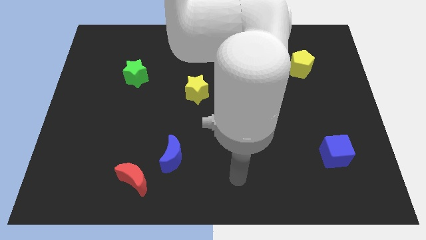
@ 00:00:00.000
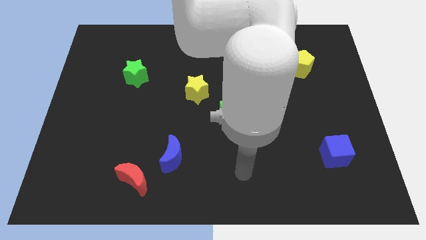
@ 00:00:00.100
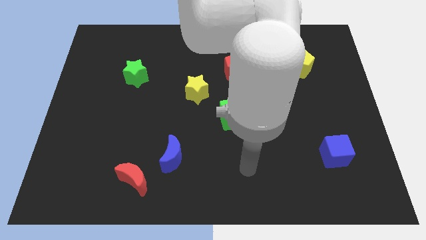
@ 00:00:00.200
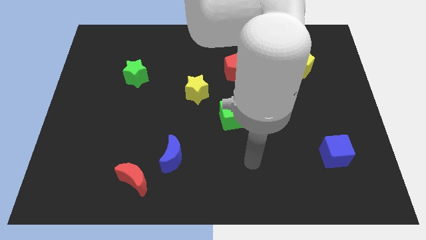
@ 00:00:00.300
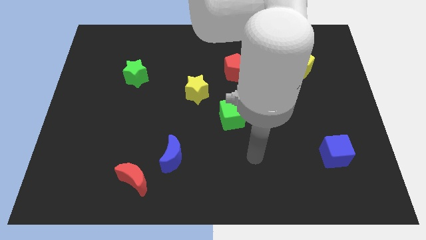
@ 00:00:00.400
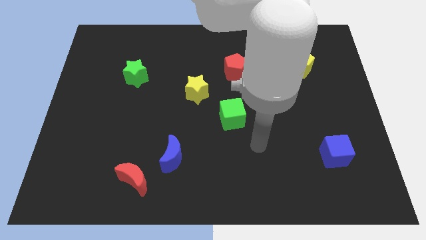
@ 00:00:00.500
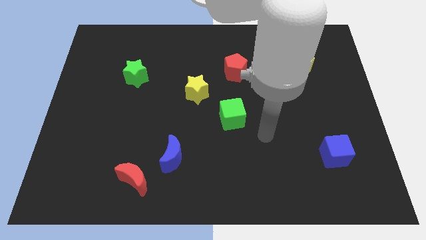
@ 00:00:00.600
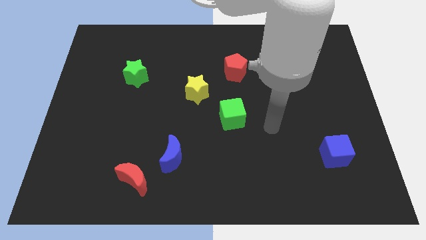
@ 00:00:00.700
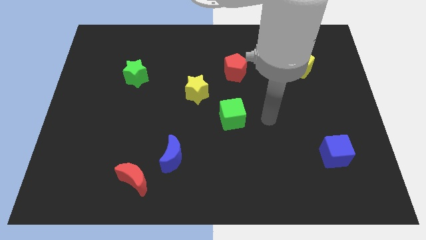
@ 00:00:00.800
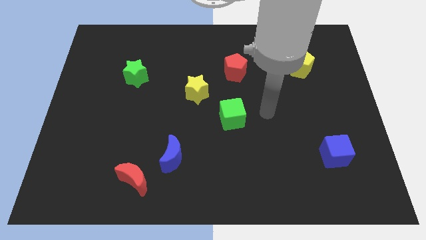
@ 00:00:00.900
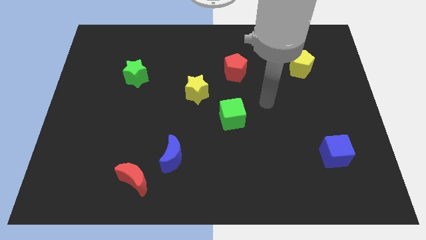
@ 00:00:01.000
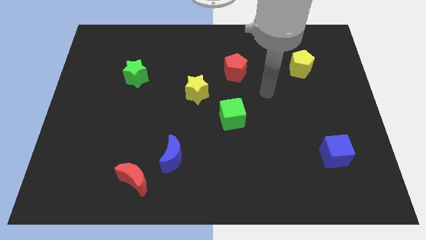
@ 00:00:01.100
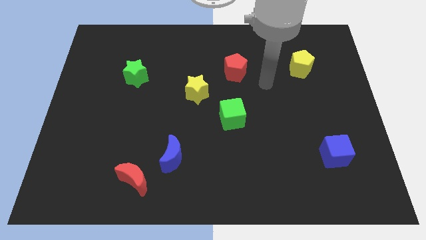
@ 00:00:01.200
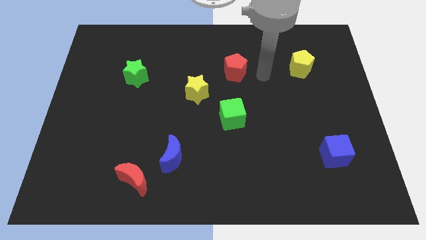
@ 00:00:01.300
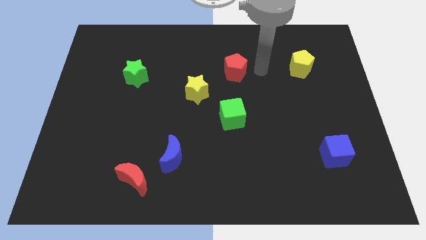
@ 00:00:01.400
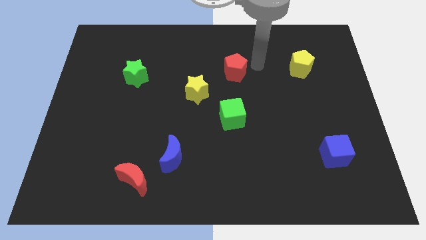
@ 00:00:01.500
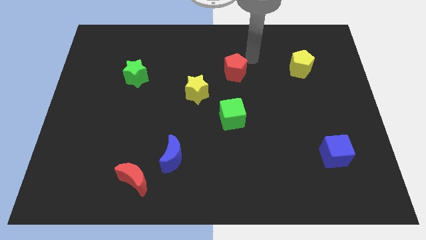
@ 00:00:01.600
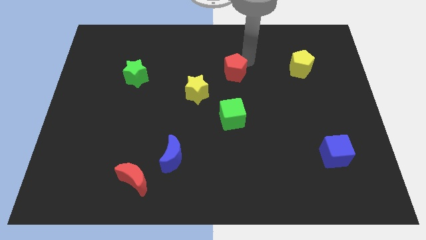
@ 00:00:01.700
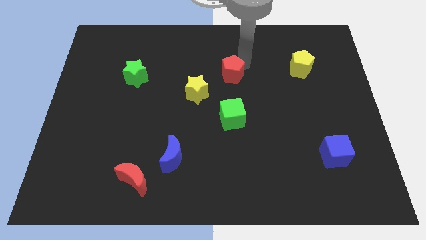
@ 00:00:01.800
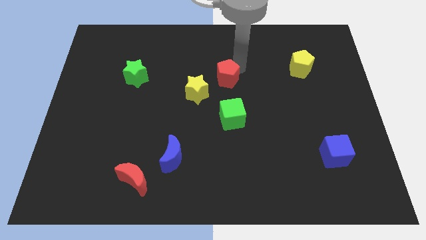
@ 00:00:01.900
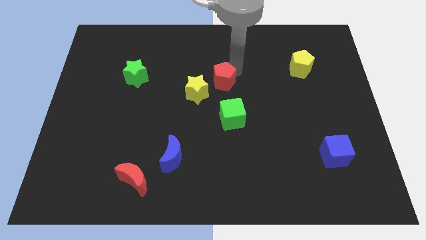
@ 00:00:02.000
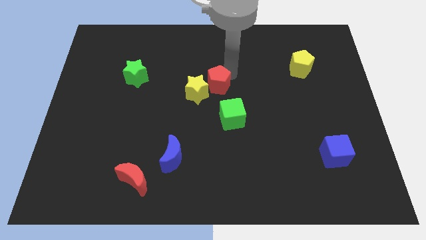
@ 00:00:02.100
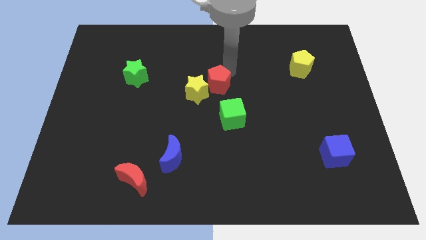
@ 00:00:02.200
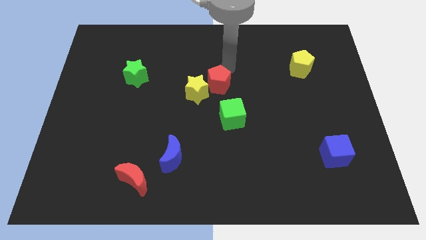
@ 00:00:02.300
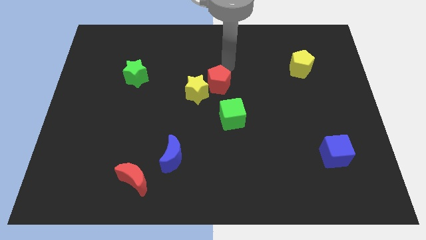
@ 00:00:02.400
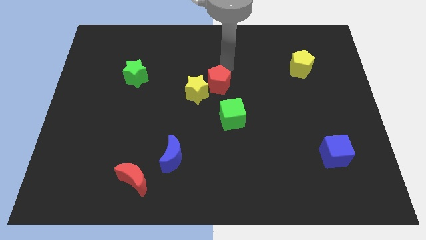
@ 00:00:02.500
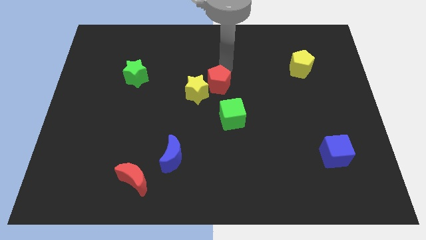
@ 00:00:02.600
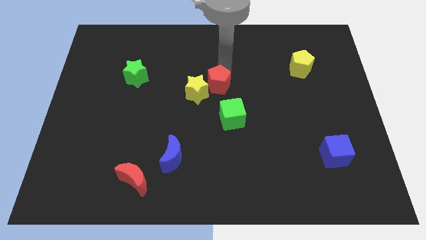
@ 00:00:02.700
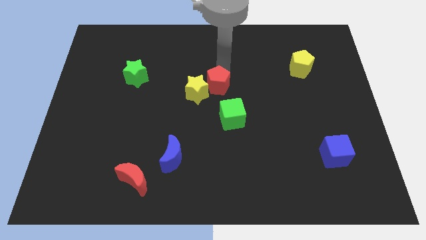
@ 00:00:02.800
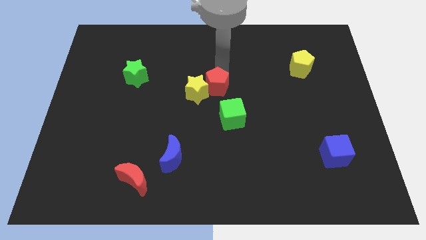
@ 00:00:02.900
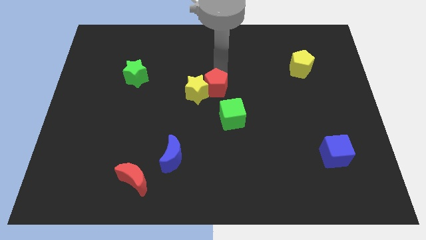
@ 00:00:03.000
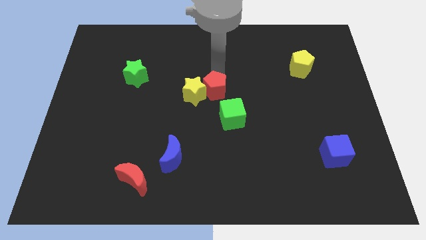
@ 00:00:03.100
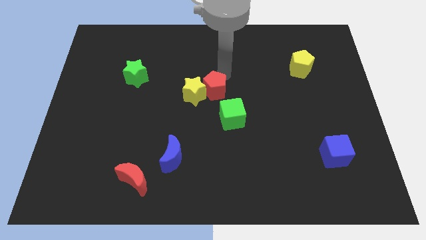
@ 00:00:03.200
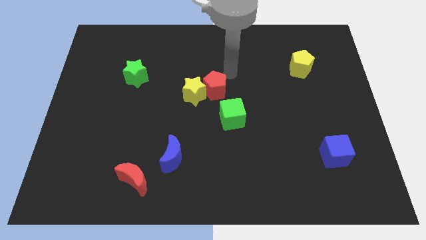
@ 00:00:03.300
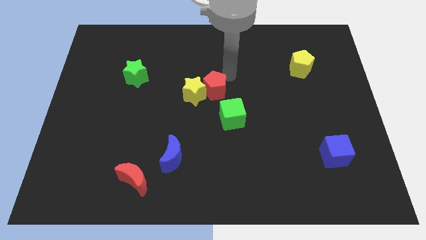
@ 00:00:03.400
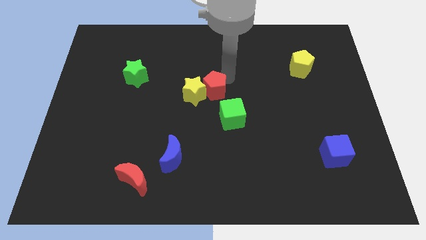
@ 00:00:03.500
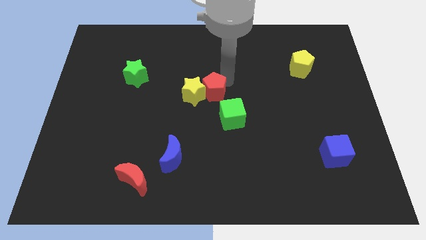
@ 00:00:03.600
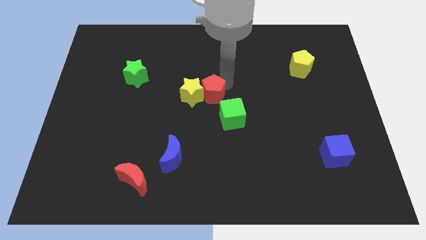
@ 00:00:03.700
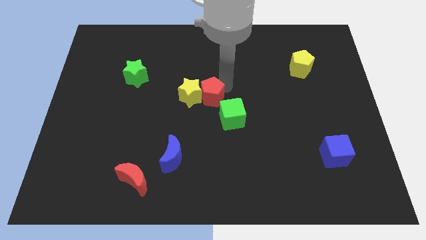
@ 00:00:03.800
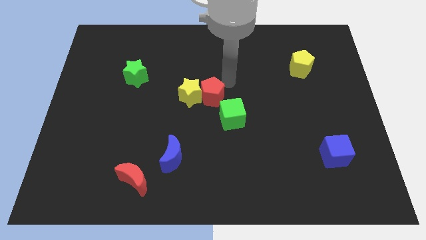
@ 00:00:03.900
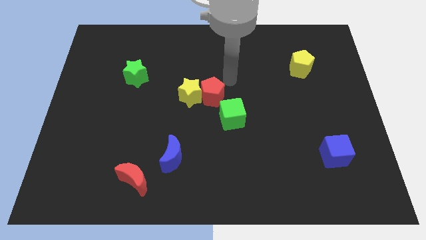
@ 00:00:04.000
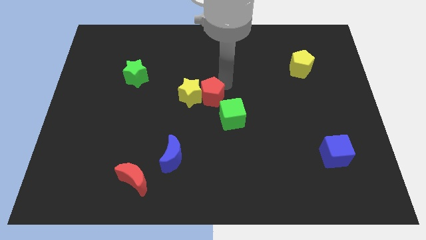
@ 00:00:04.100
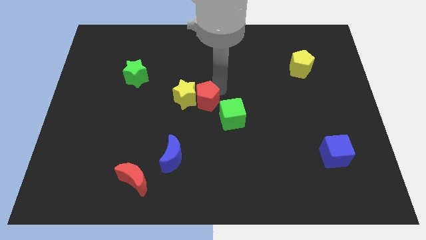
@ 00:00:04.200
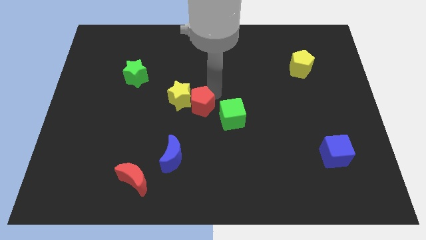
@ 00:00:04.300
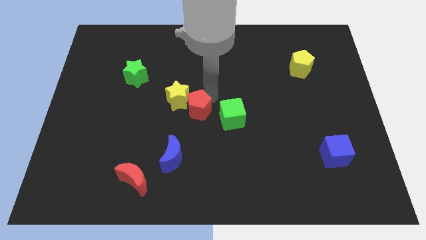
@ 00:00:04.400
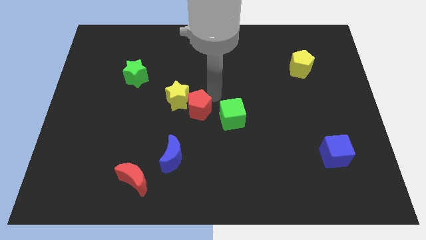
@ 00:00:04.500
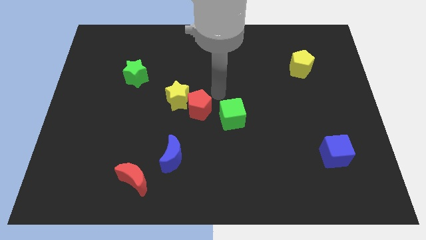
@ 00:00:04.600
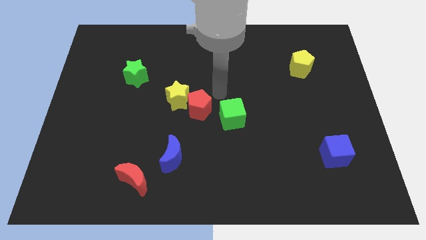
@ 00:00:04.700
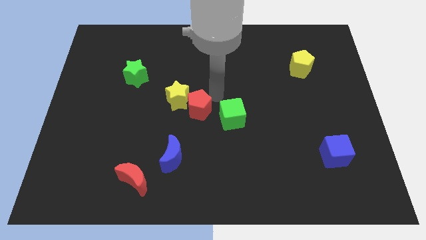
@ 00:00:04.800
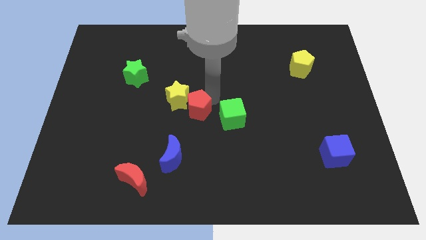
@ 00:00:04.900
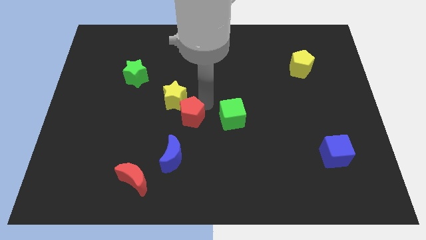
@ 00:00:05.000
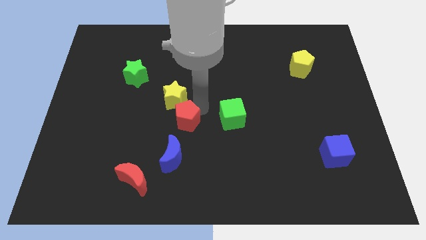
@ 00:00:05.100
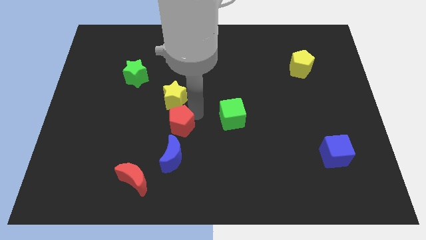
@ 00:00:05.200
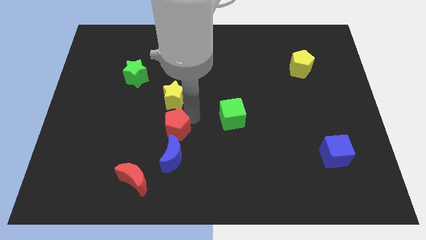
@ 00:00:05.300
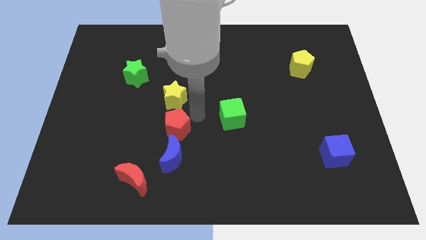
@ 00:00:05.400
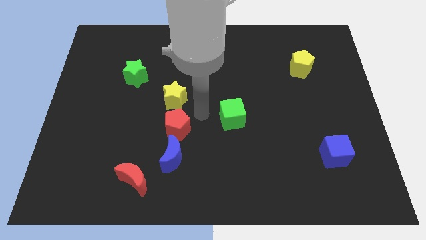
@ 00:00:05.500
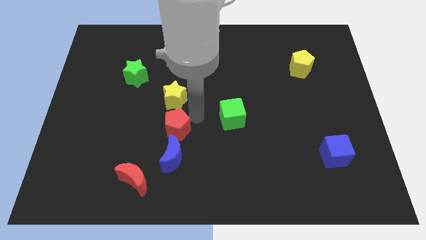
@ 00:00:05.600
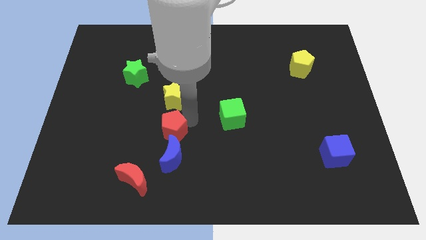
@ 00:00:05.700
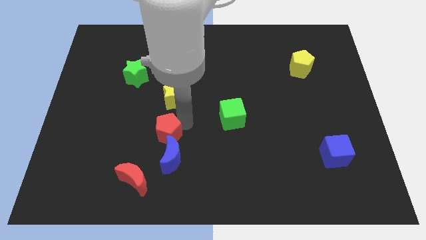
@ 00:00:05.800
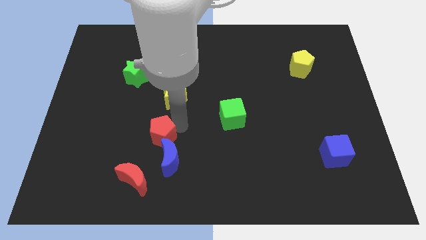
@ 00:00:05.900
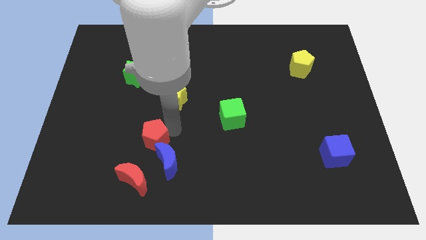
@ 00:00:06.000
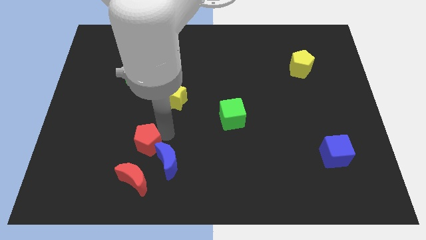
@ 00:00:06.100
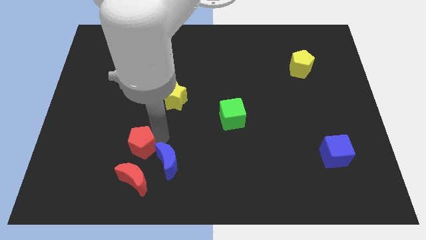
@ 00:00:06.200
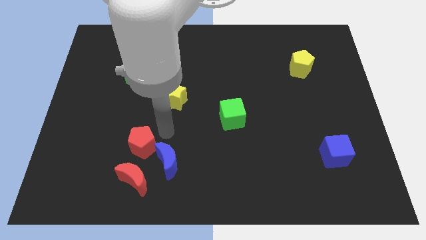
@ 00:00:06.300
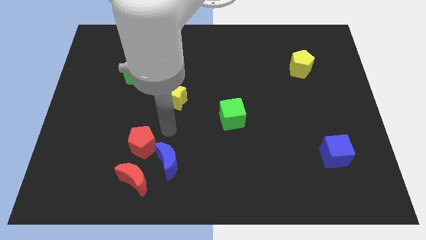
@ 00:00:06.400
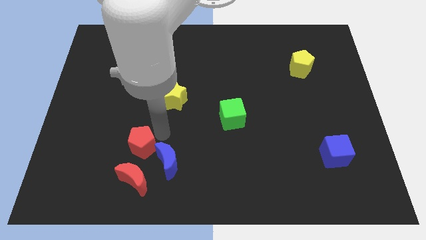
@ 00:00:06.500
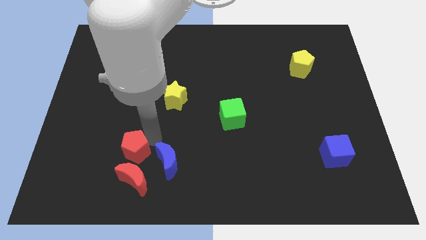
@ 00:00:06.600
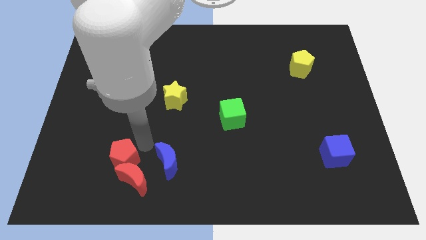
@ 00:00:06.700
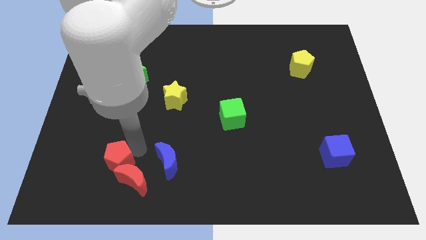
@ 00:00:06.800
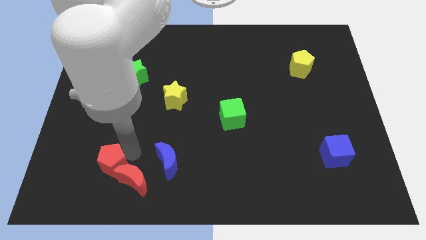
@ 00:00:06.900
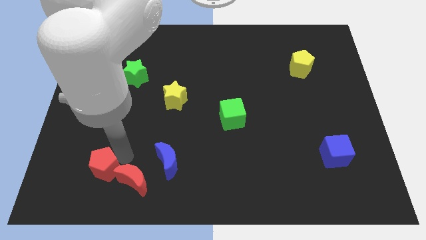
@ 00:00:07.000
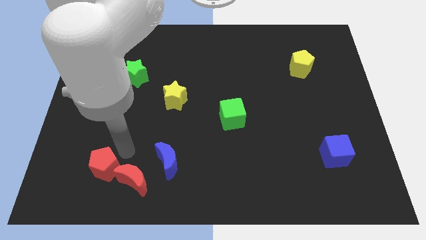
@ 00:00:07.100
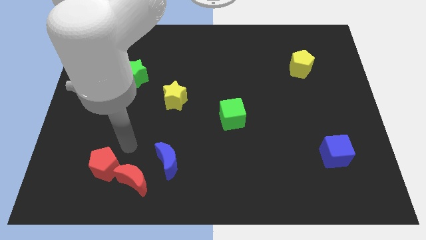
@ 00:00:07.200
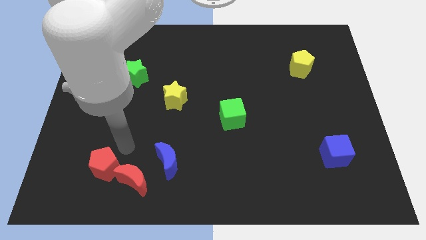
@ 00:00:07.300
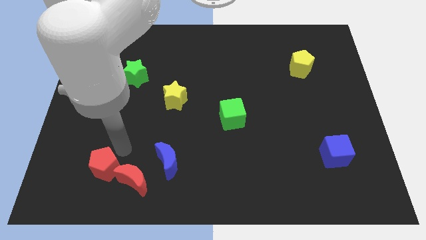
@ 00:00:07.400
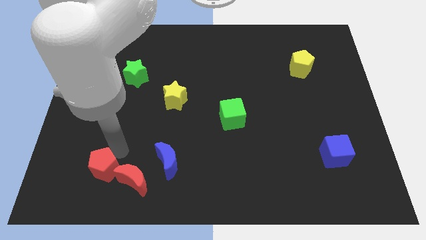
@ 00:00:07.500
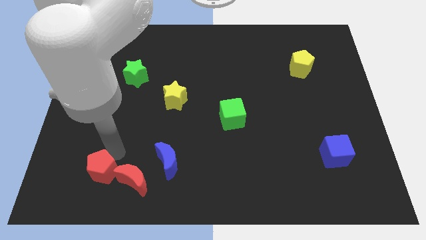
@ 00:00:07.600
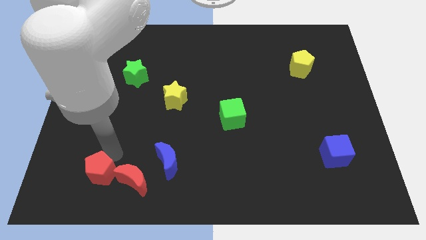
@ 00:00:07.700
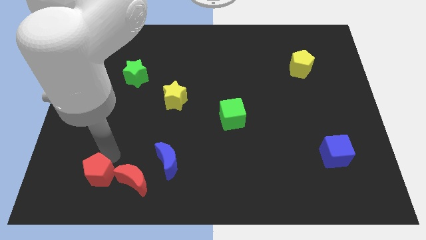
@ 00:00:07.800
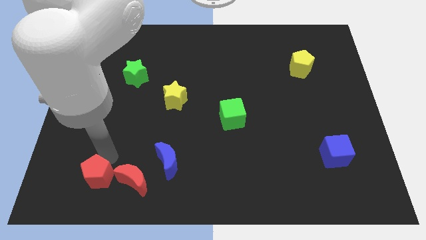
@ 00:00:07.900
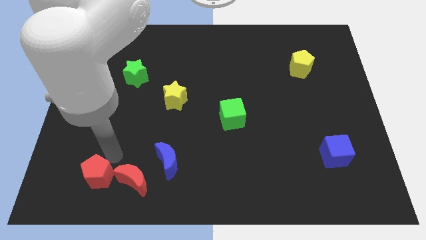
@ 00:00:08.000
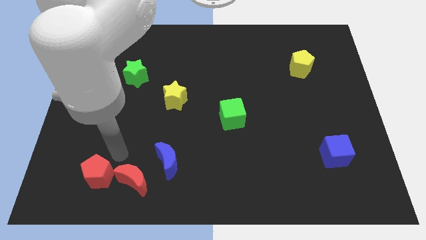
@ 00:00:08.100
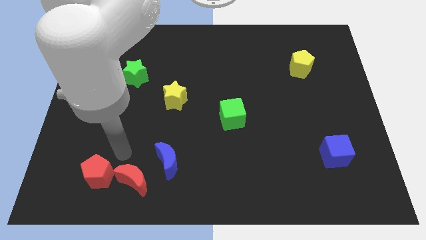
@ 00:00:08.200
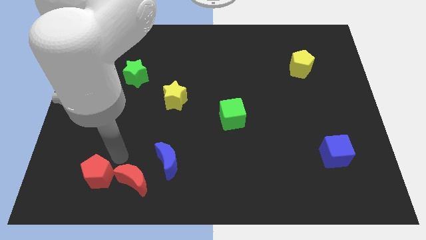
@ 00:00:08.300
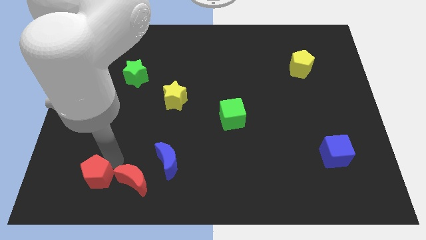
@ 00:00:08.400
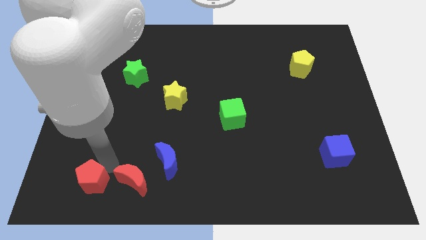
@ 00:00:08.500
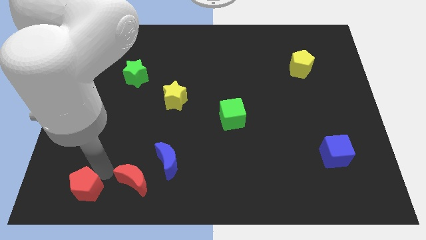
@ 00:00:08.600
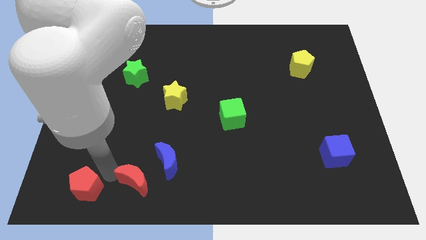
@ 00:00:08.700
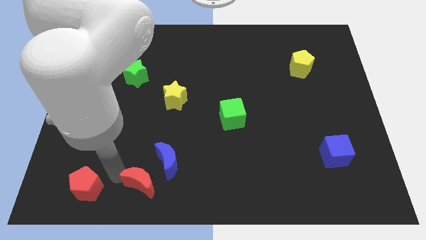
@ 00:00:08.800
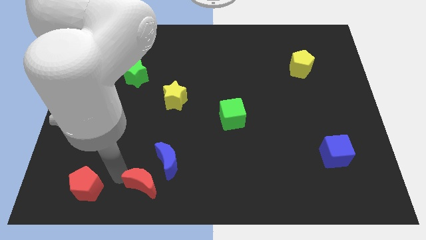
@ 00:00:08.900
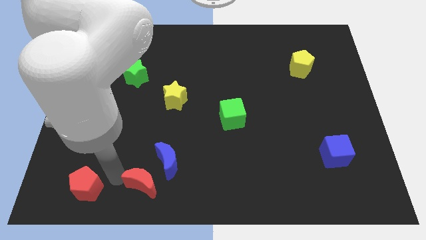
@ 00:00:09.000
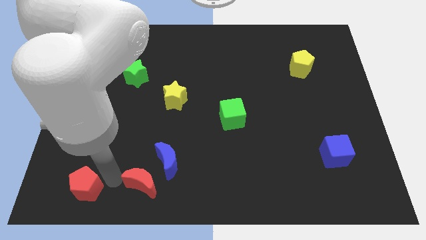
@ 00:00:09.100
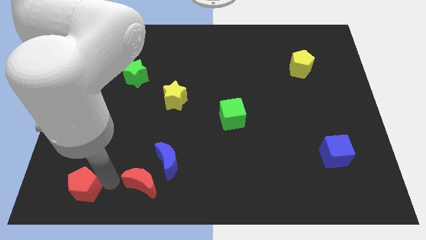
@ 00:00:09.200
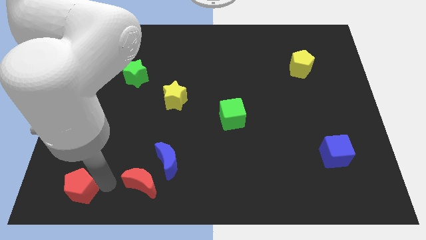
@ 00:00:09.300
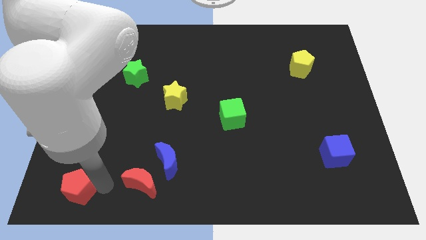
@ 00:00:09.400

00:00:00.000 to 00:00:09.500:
put the red pentagon to the bottom left corner
